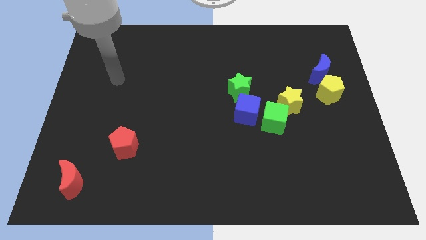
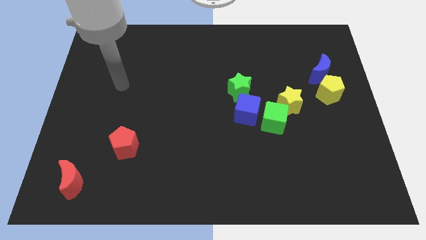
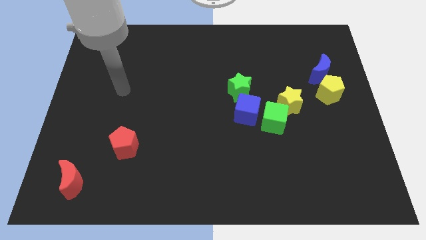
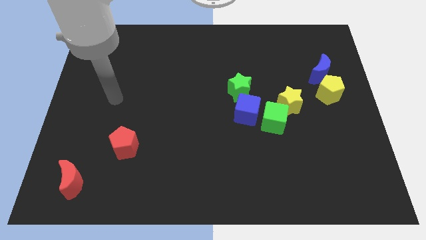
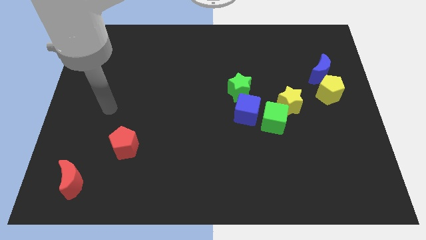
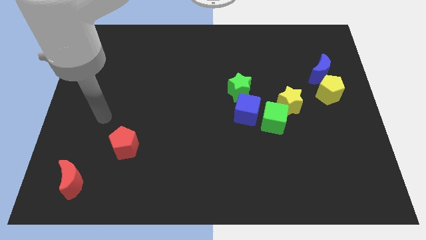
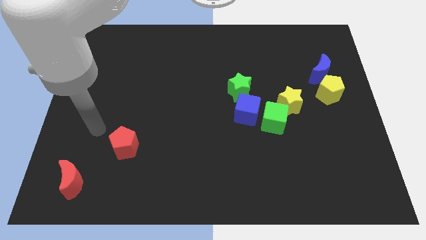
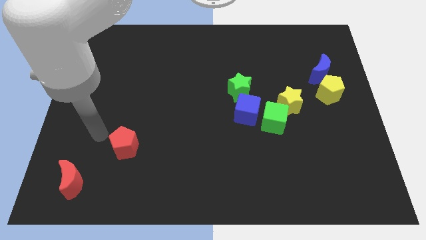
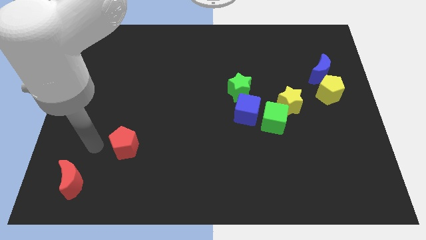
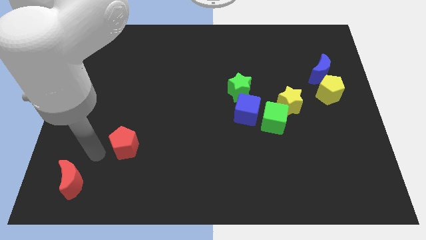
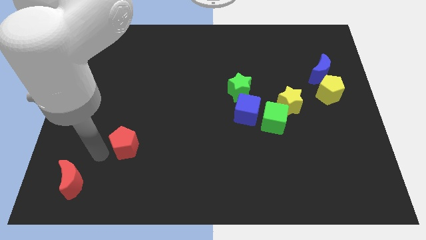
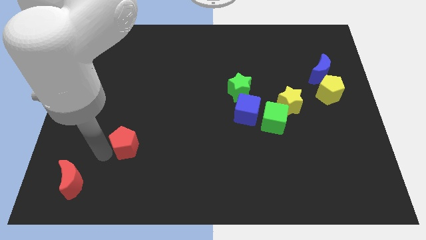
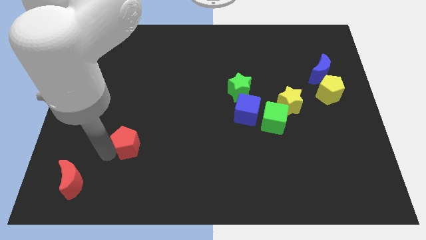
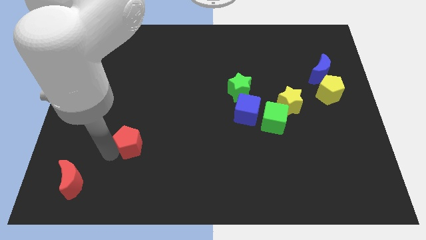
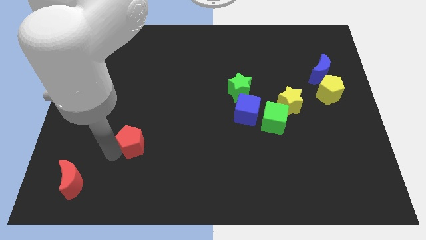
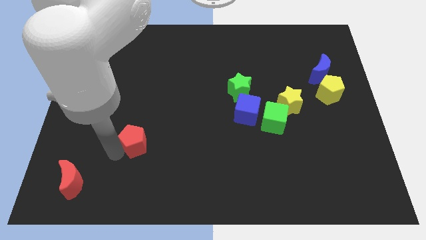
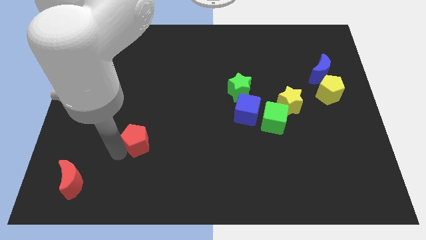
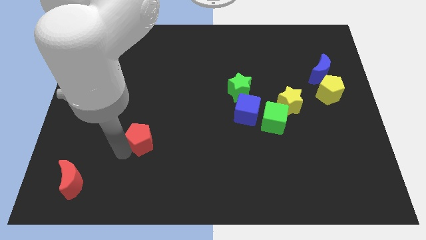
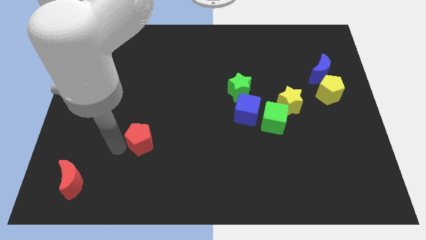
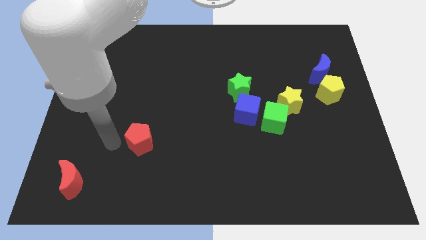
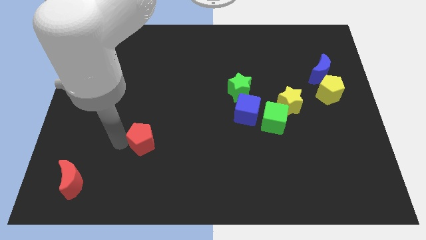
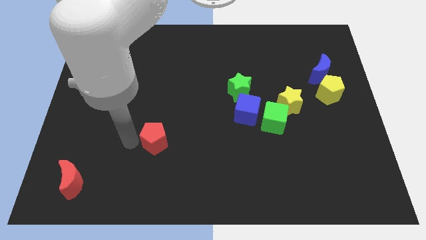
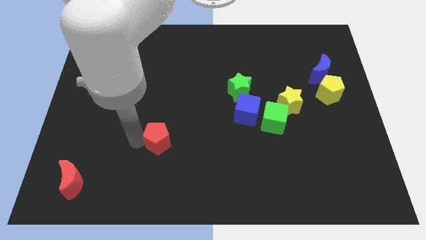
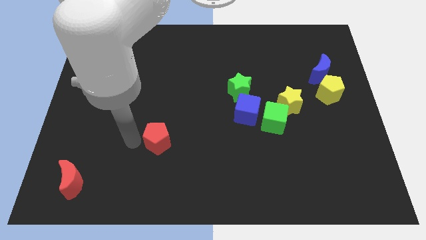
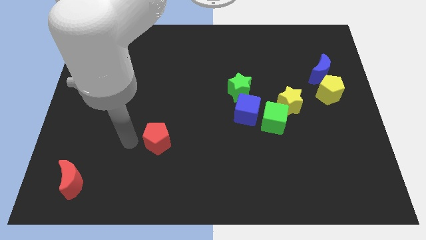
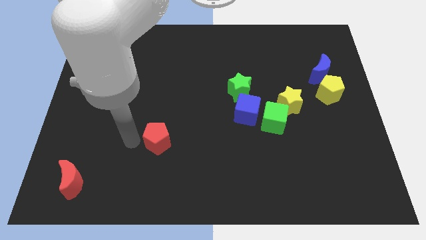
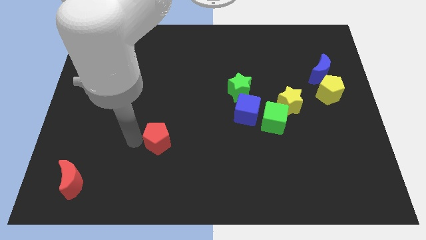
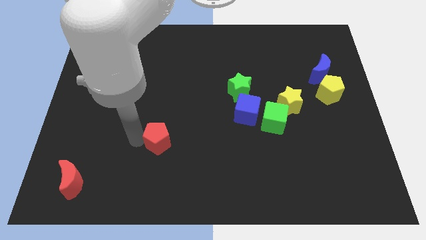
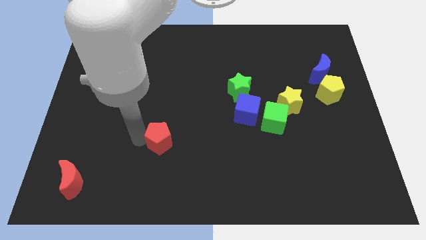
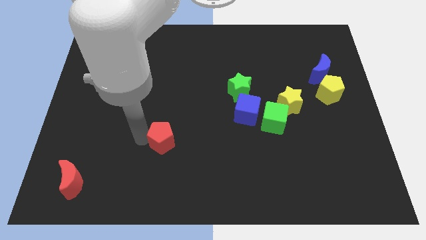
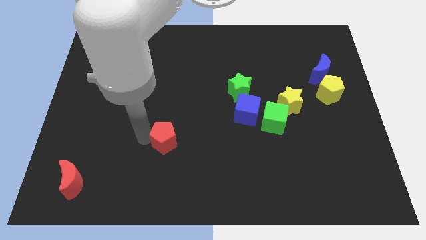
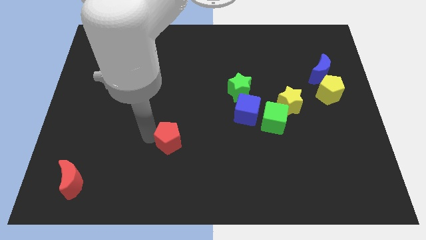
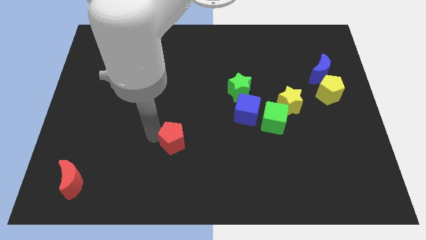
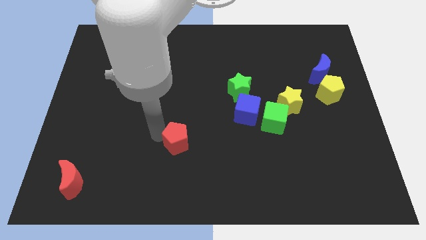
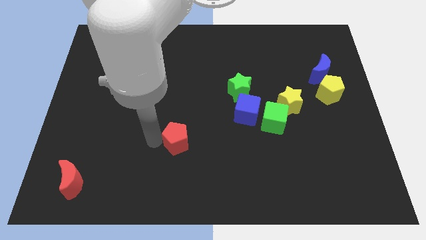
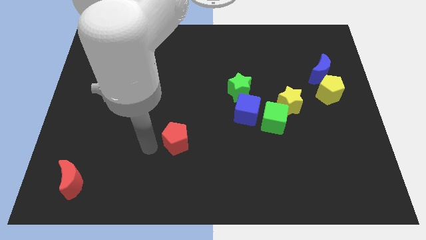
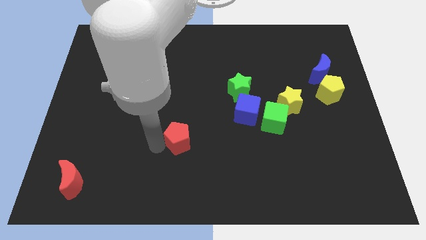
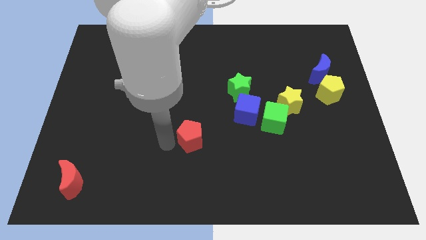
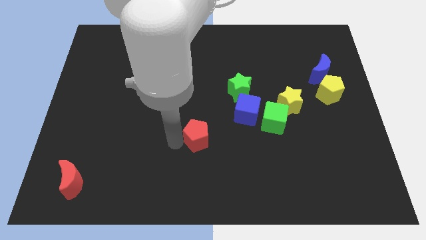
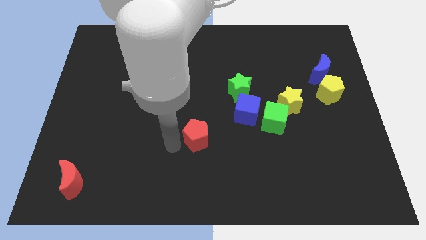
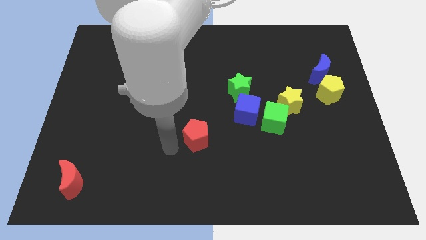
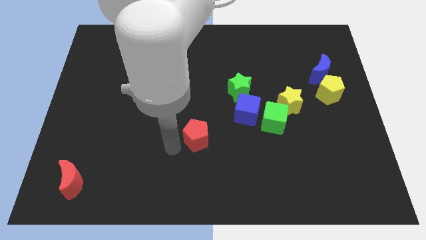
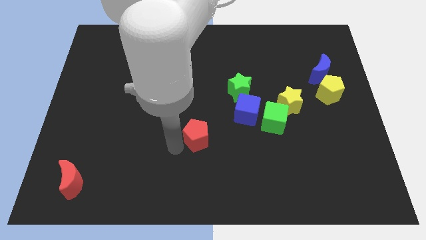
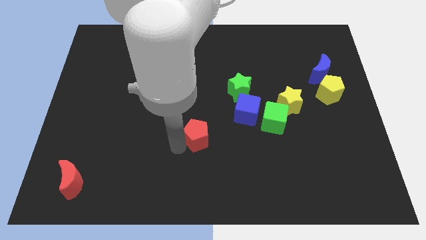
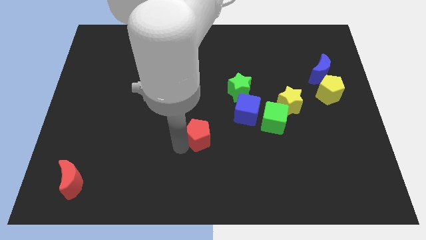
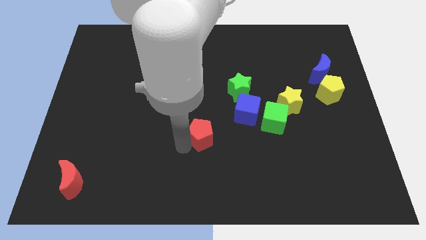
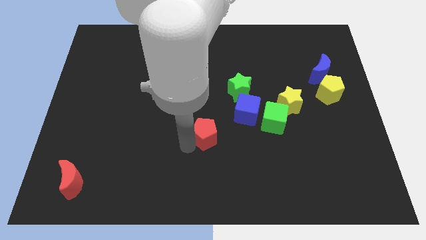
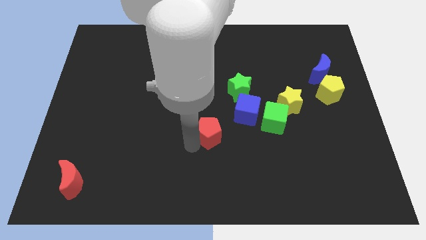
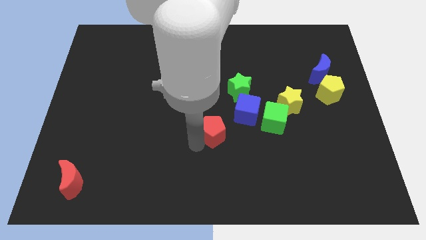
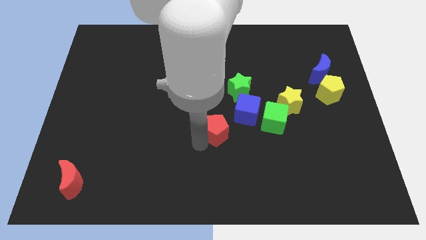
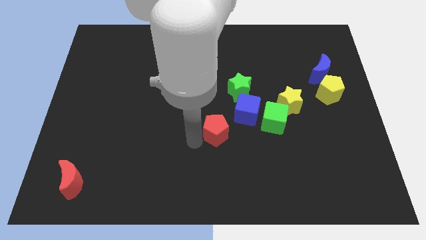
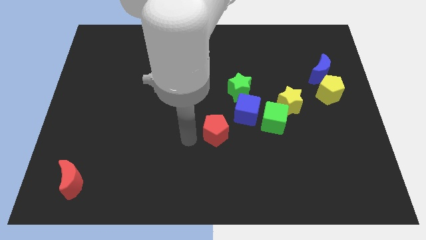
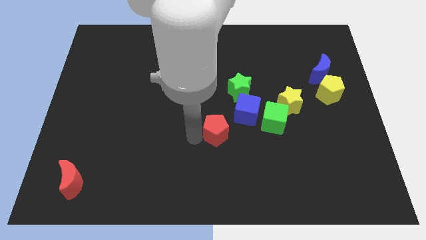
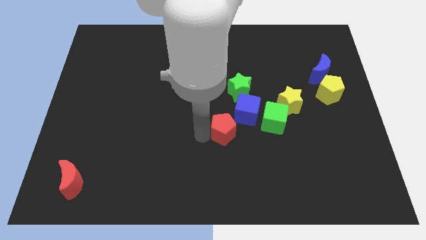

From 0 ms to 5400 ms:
put the red pentagon to the bottom of the green star

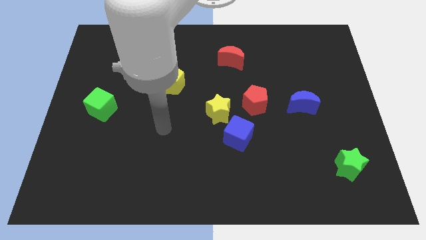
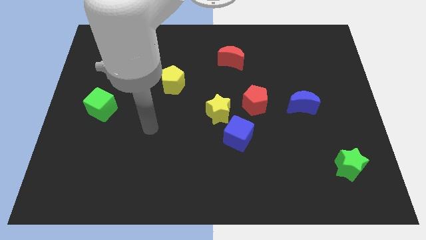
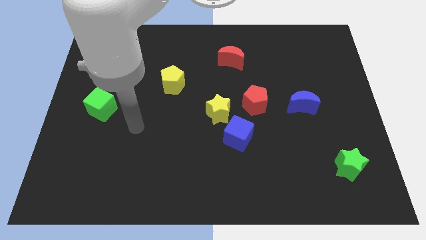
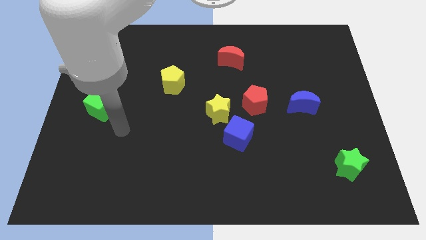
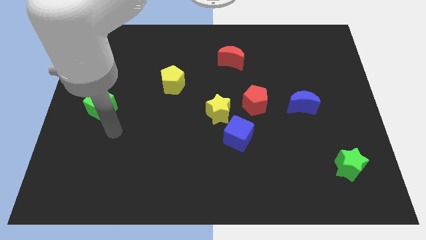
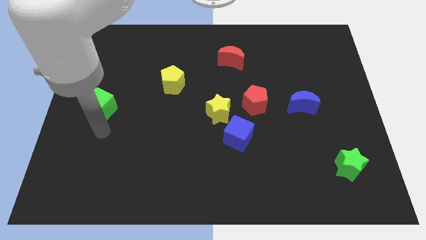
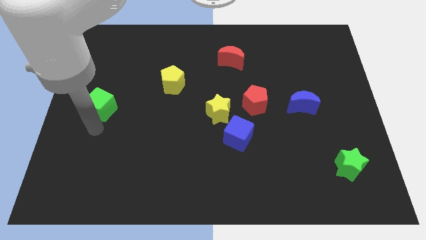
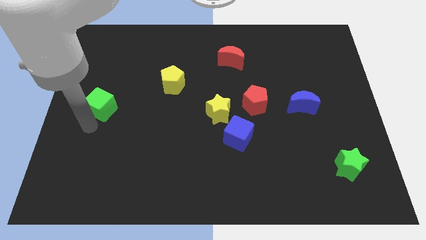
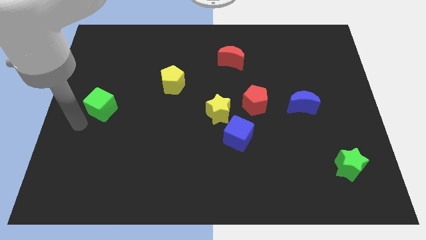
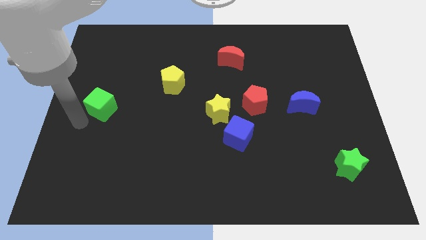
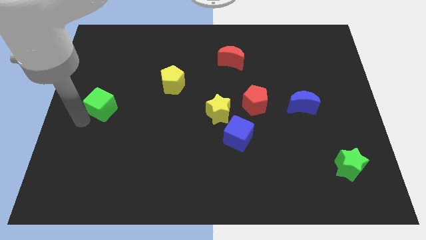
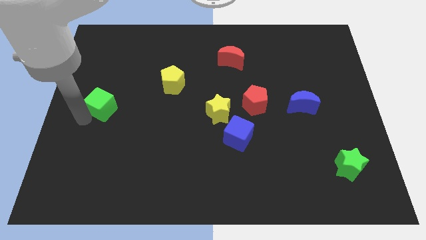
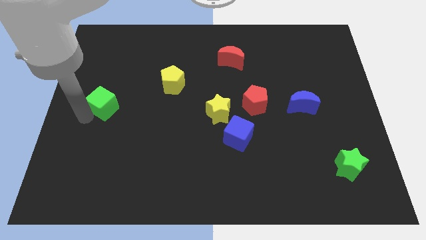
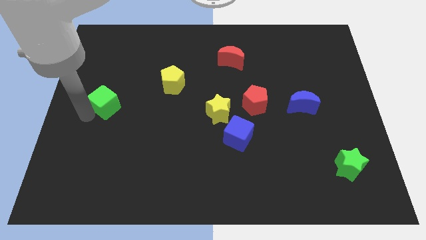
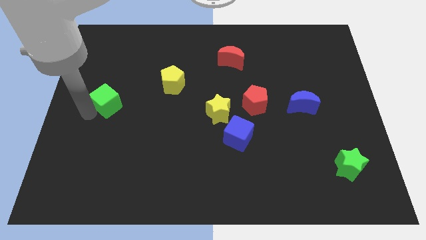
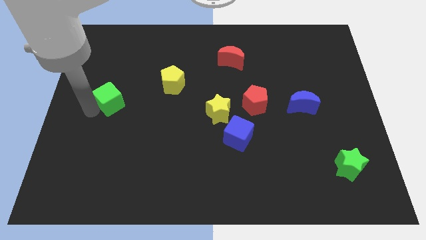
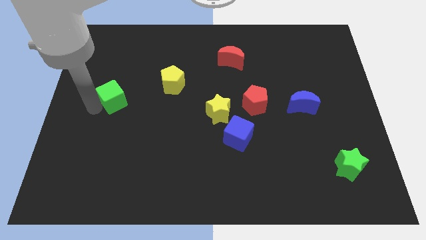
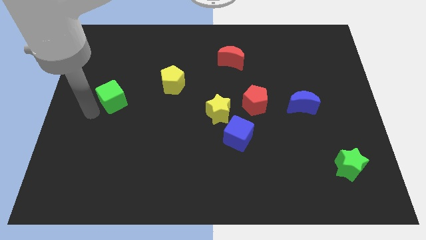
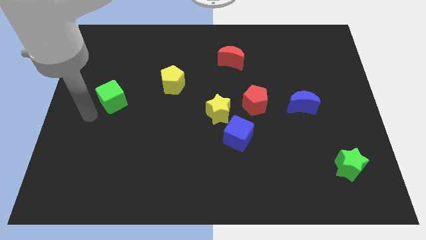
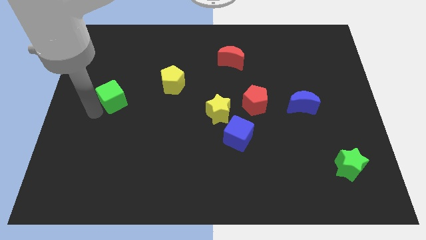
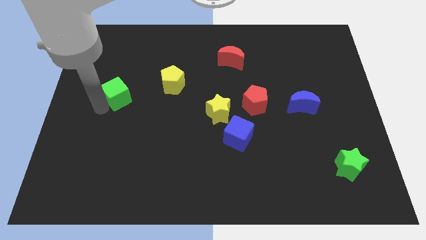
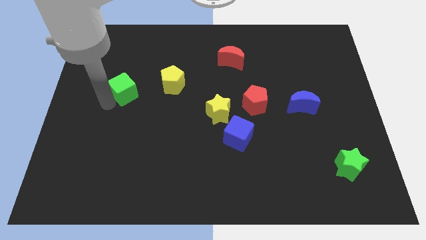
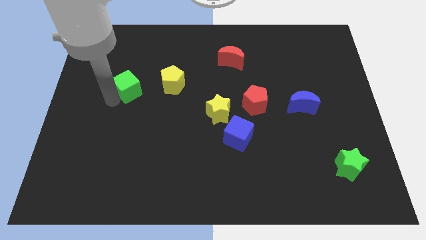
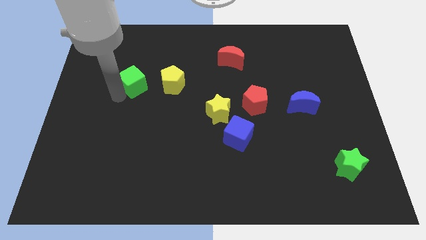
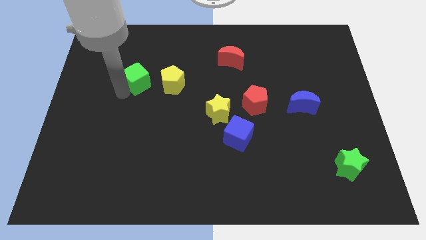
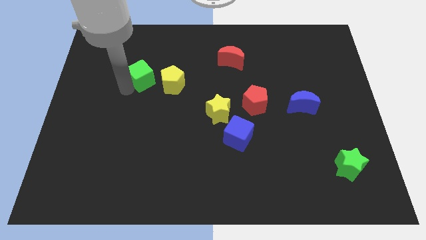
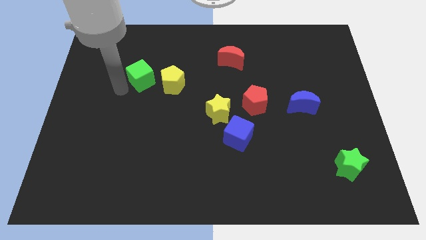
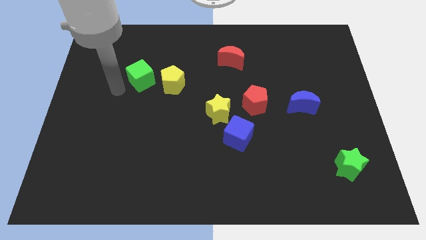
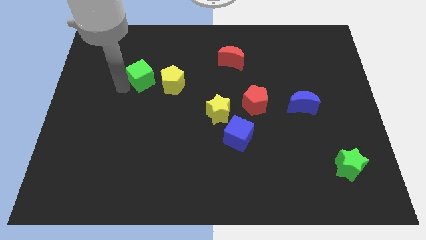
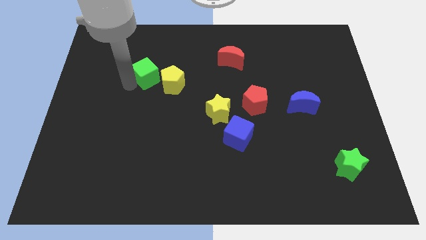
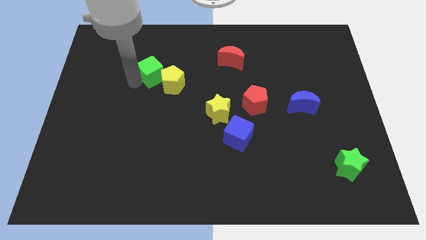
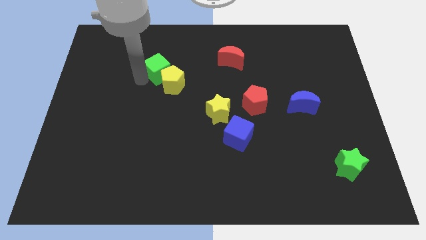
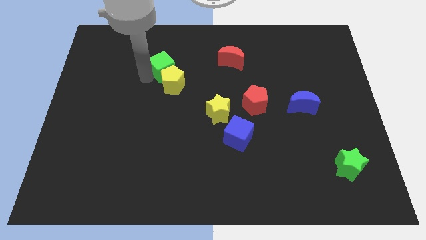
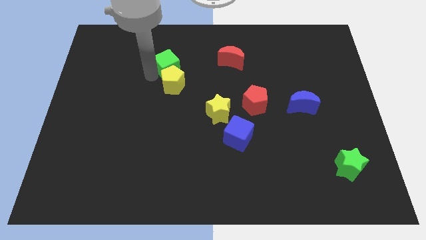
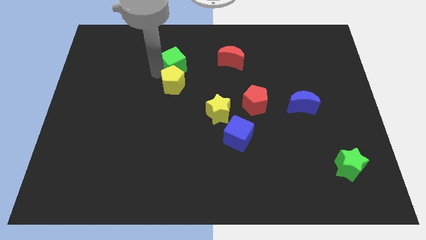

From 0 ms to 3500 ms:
push the green cube just left of the red moon
